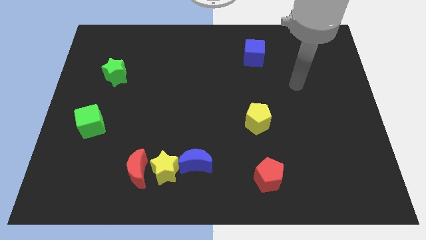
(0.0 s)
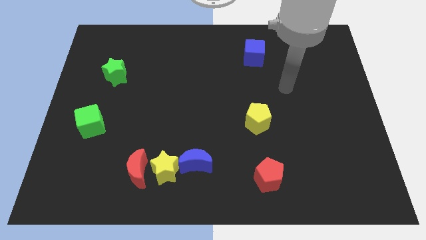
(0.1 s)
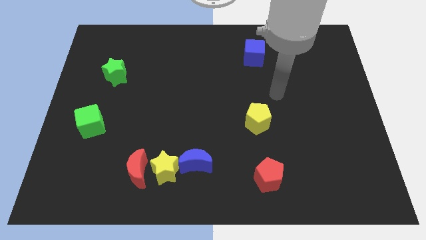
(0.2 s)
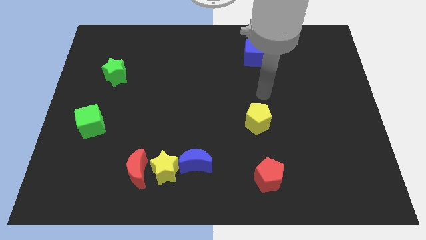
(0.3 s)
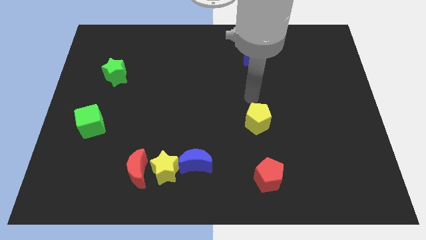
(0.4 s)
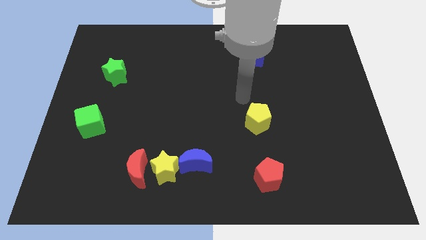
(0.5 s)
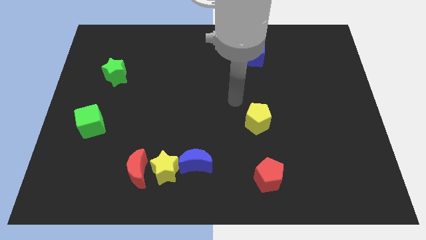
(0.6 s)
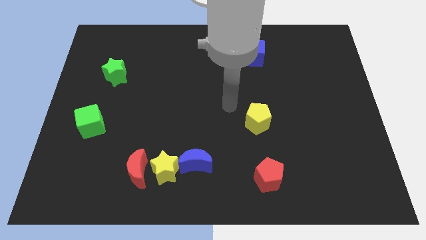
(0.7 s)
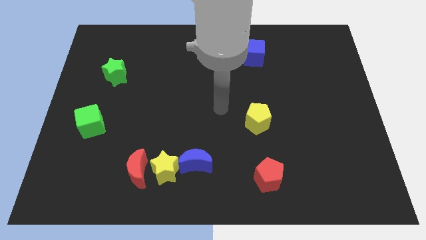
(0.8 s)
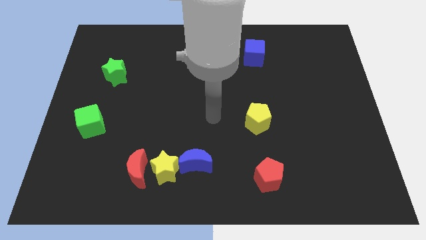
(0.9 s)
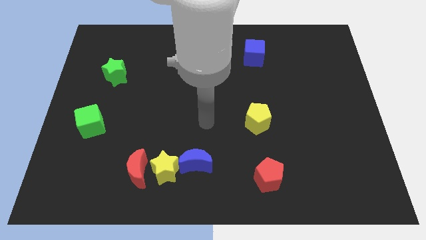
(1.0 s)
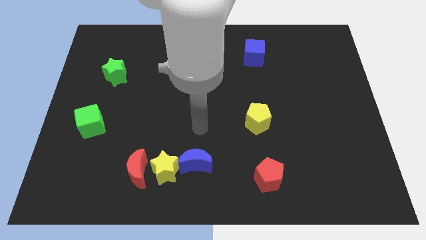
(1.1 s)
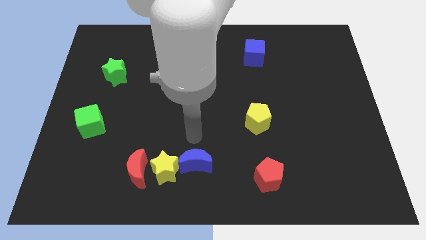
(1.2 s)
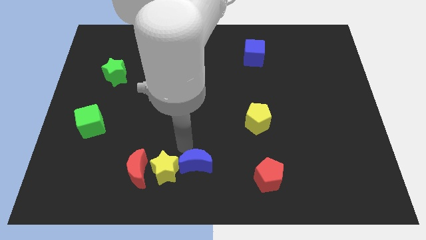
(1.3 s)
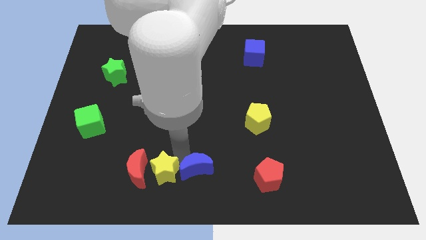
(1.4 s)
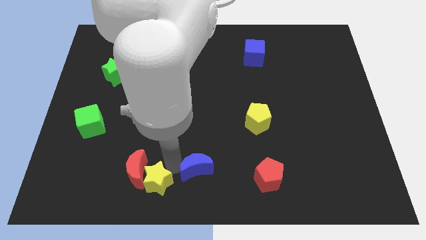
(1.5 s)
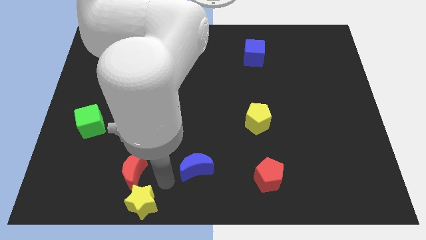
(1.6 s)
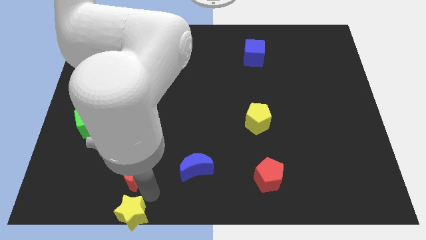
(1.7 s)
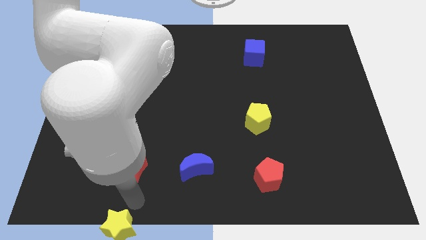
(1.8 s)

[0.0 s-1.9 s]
move the red moon away from the yellow star

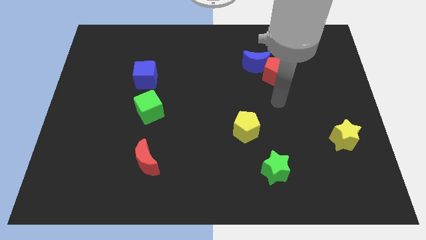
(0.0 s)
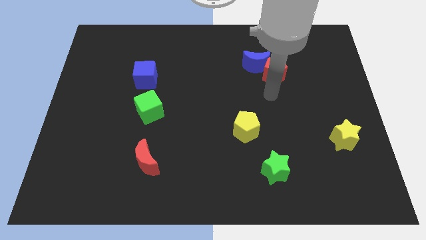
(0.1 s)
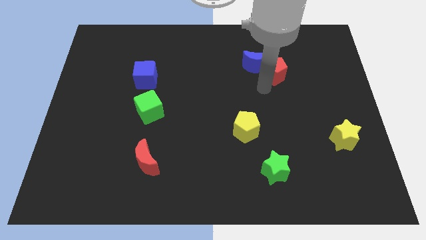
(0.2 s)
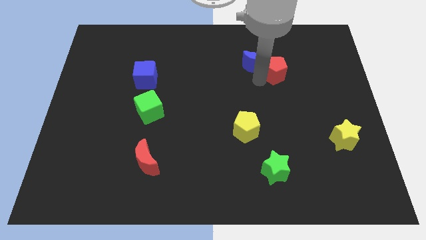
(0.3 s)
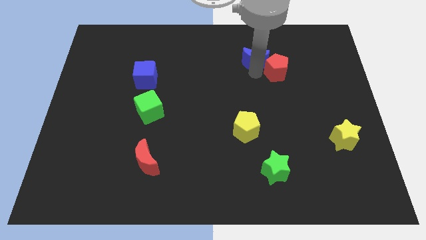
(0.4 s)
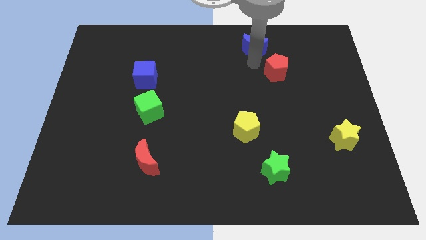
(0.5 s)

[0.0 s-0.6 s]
move the red pentagon away from the blue moon

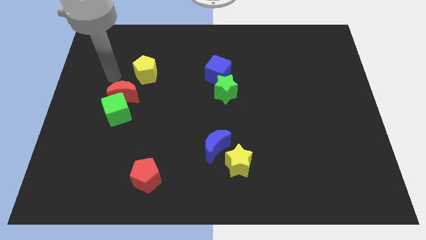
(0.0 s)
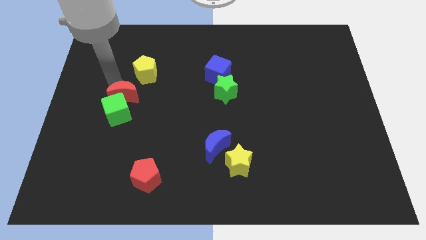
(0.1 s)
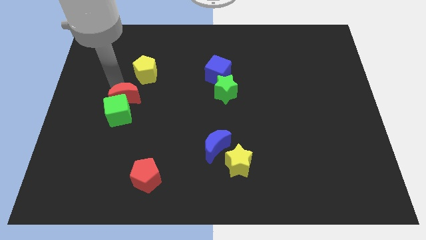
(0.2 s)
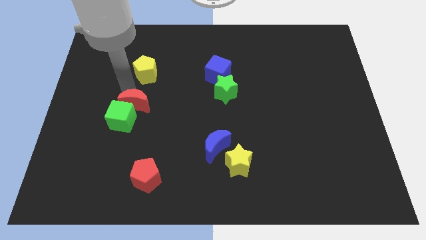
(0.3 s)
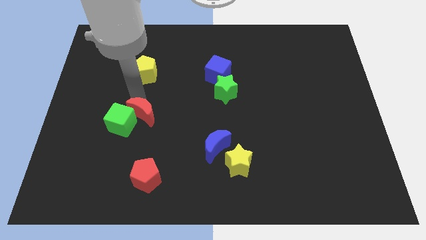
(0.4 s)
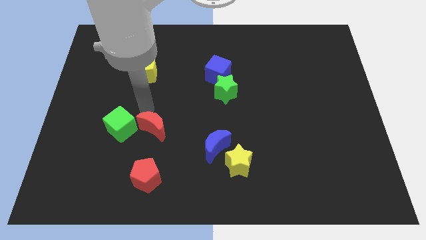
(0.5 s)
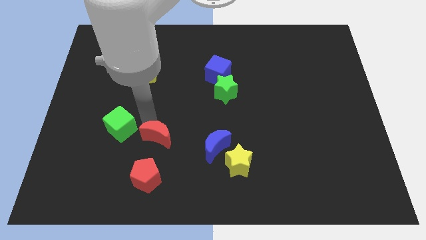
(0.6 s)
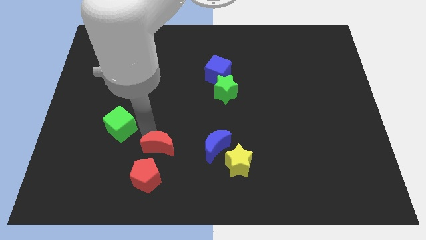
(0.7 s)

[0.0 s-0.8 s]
pull the green cube apart from the red moon

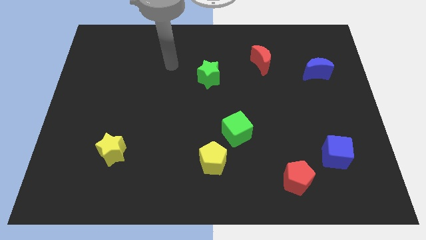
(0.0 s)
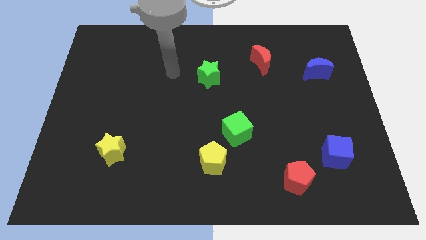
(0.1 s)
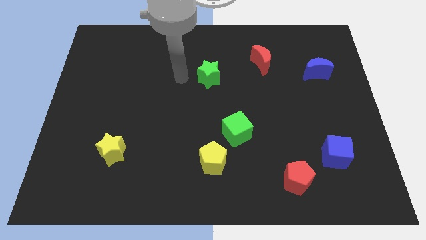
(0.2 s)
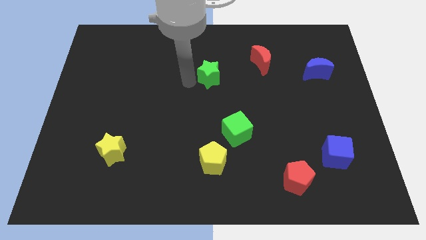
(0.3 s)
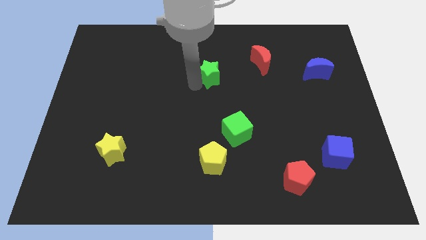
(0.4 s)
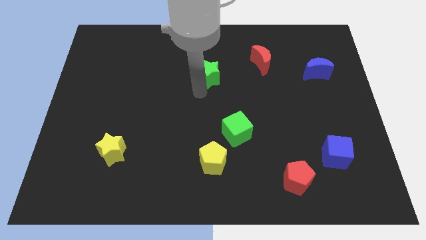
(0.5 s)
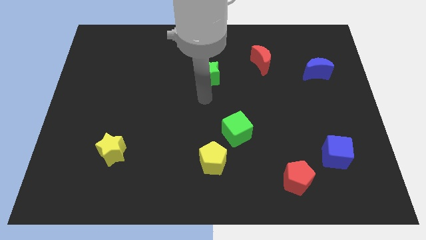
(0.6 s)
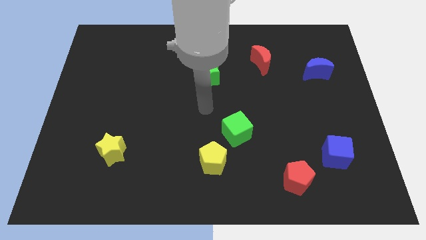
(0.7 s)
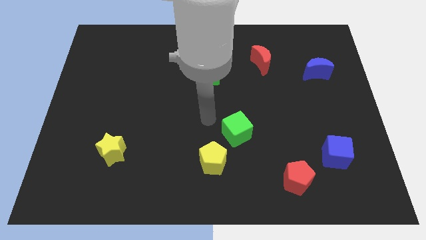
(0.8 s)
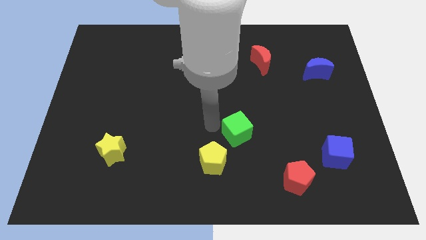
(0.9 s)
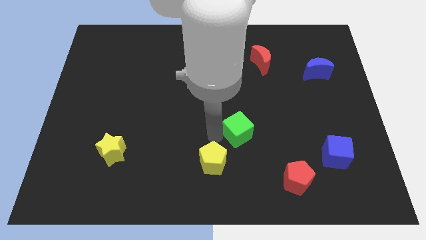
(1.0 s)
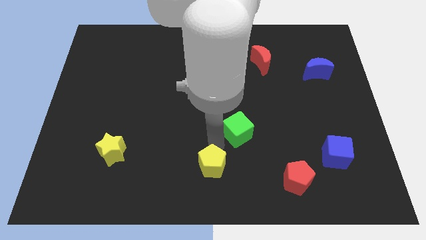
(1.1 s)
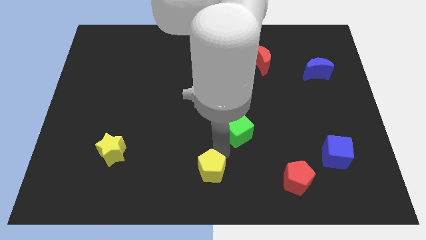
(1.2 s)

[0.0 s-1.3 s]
pull the green cube apart from the yellow pentagon

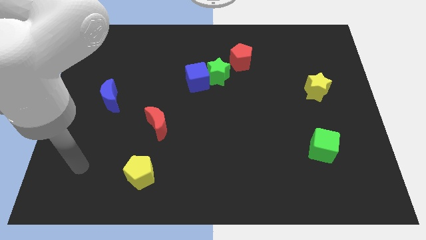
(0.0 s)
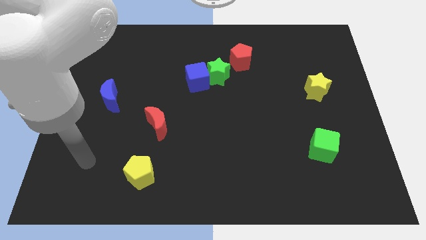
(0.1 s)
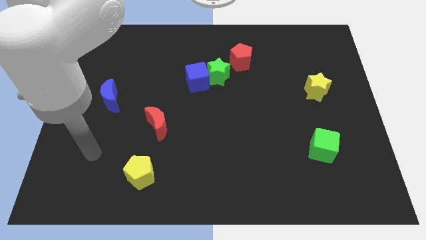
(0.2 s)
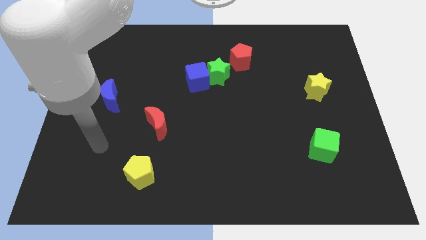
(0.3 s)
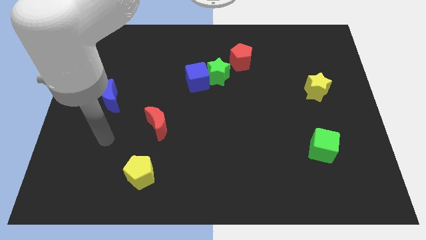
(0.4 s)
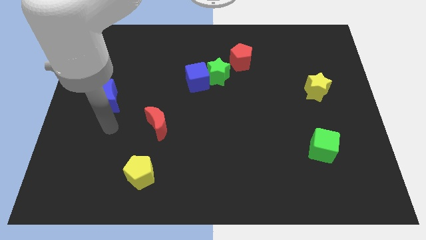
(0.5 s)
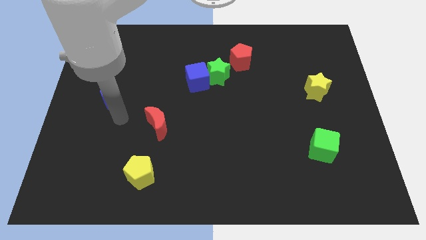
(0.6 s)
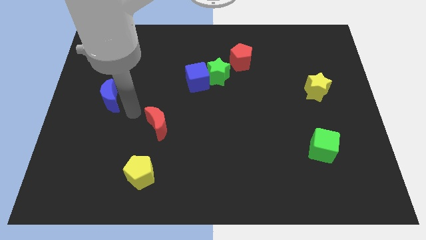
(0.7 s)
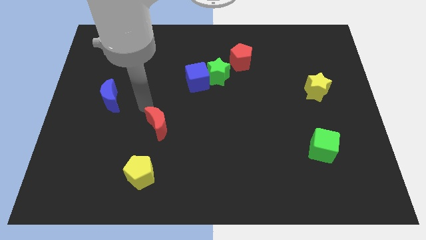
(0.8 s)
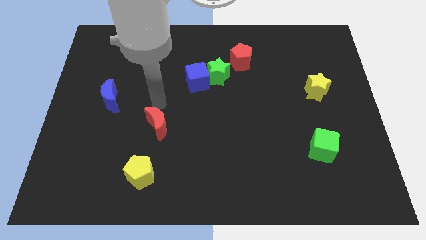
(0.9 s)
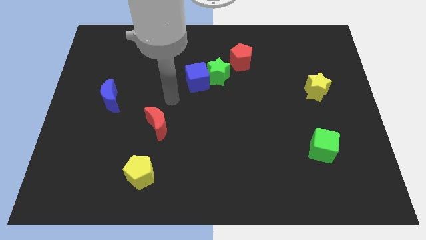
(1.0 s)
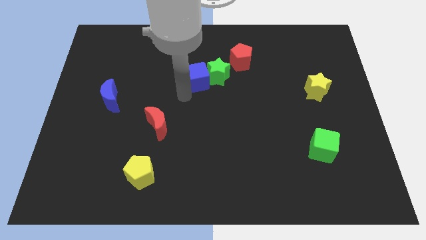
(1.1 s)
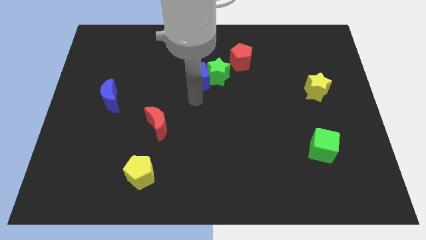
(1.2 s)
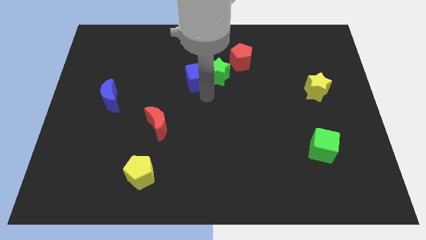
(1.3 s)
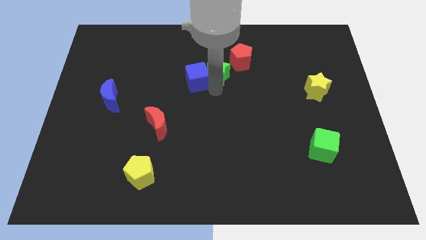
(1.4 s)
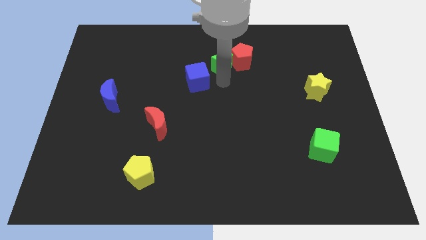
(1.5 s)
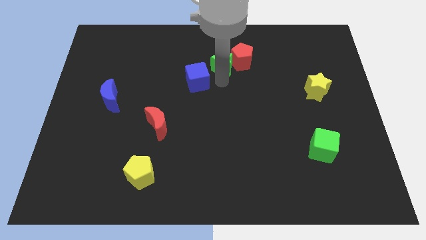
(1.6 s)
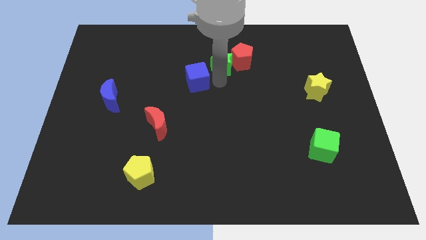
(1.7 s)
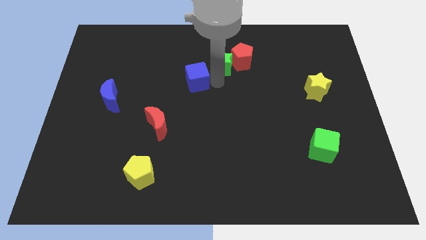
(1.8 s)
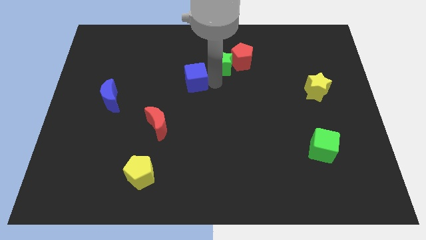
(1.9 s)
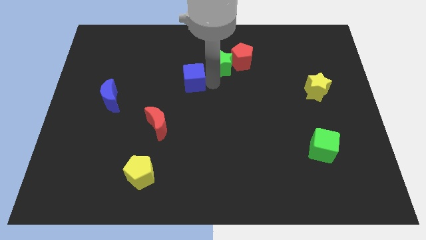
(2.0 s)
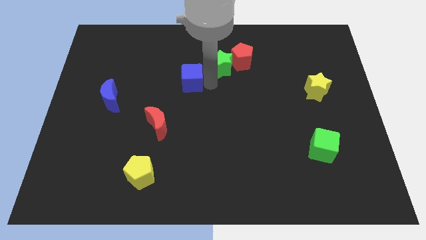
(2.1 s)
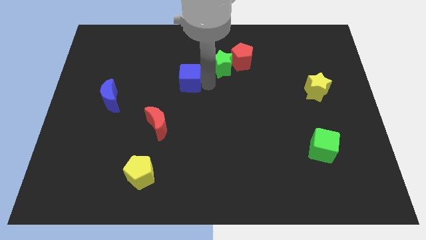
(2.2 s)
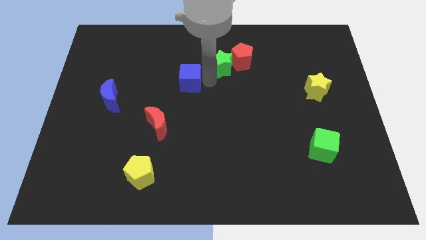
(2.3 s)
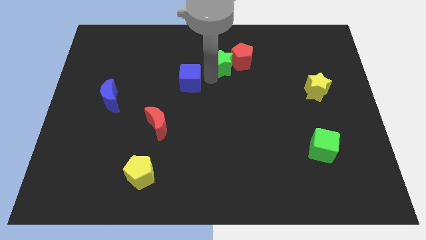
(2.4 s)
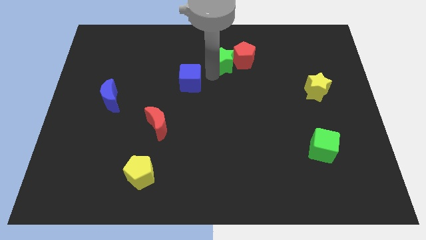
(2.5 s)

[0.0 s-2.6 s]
pull the blue cube apart from the green star

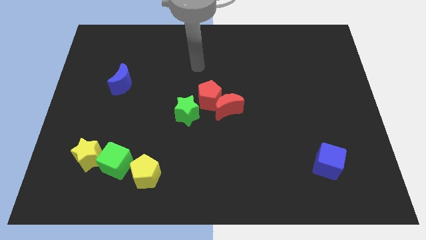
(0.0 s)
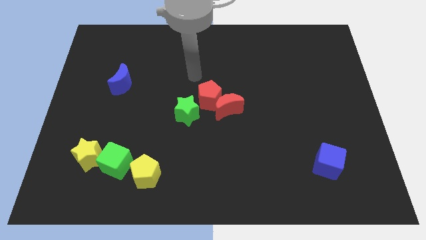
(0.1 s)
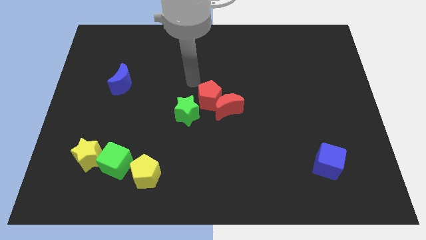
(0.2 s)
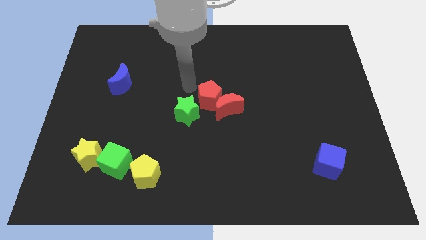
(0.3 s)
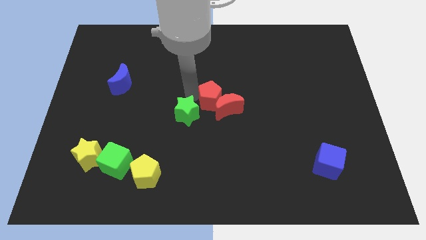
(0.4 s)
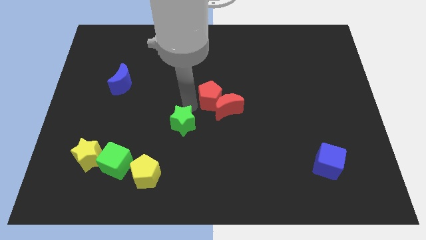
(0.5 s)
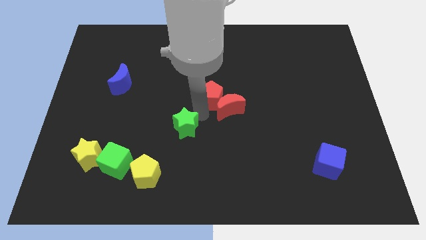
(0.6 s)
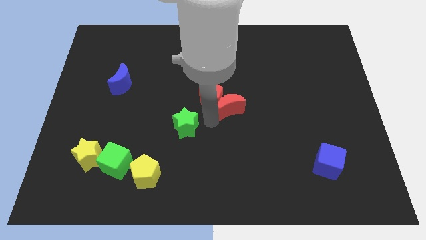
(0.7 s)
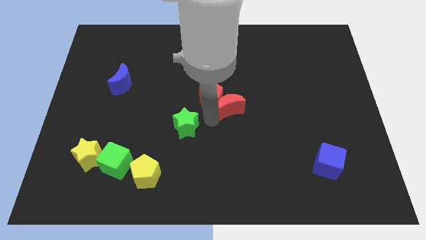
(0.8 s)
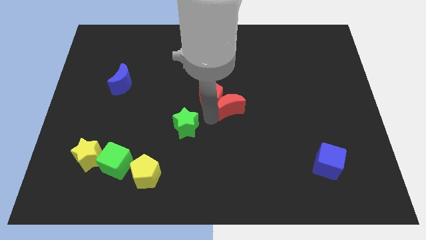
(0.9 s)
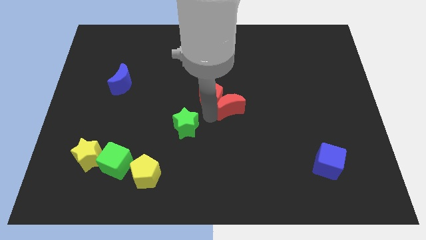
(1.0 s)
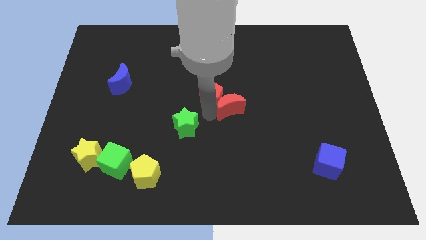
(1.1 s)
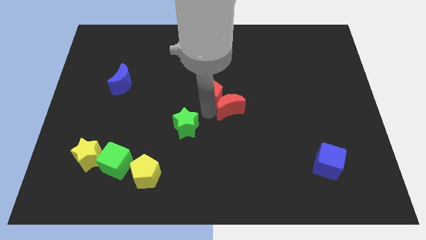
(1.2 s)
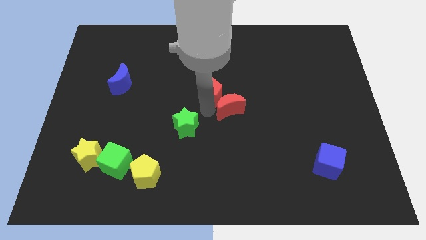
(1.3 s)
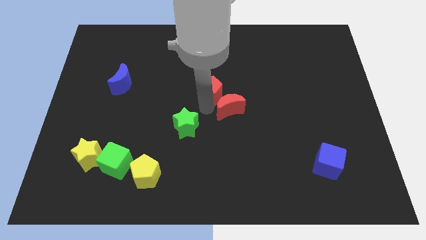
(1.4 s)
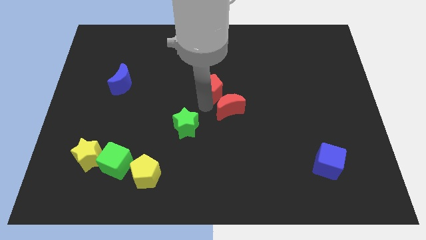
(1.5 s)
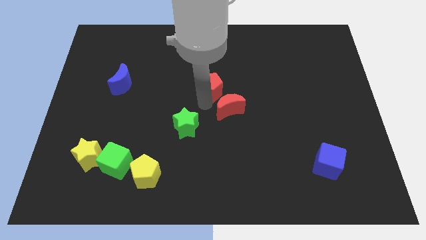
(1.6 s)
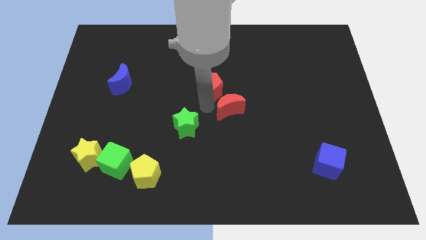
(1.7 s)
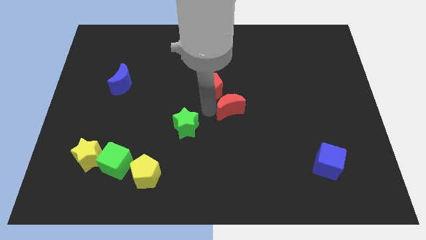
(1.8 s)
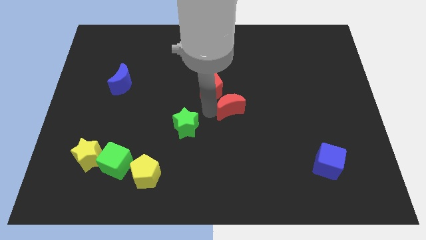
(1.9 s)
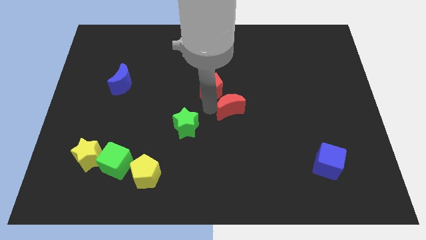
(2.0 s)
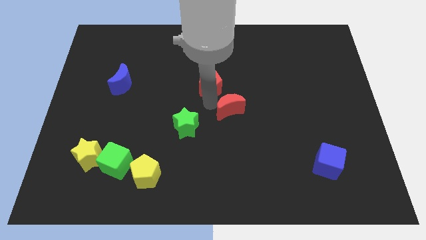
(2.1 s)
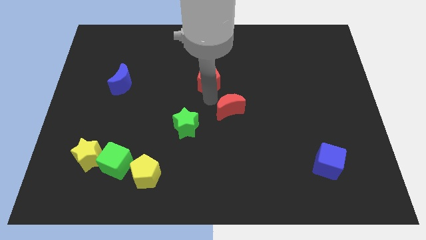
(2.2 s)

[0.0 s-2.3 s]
separate the red pentagon from the red moon and green star
